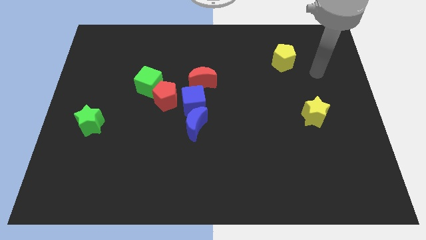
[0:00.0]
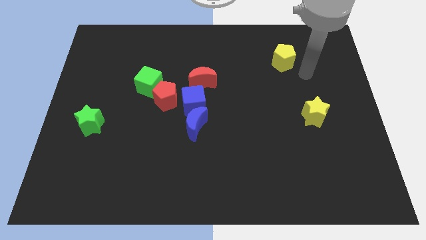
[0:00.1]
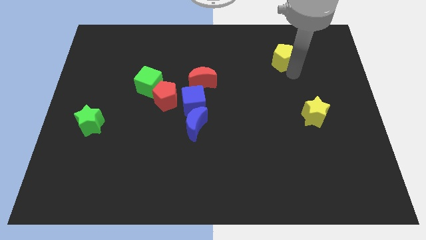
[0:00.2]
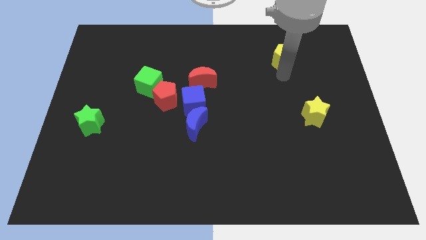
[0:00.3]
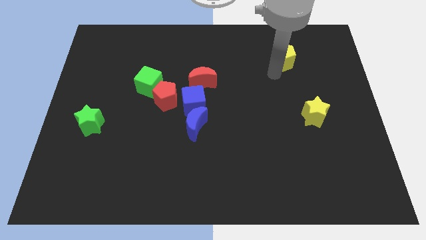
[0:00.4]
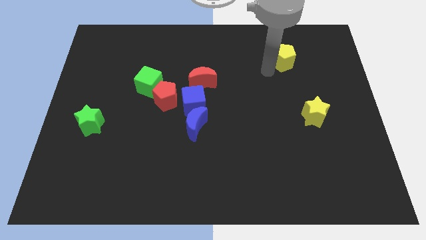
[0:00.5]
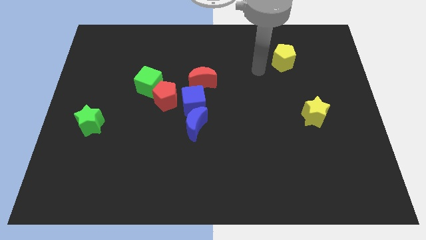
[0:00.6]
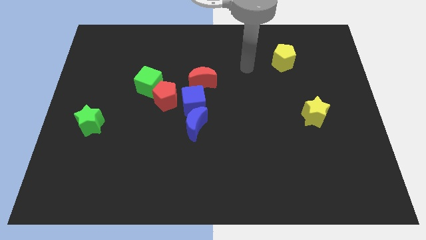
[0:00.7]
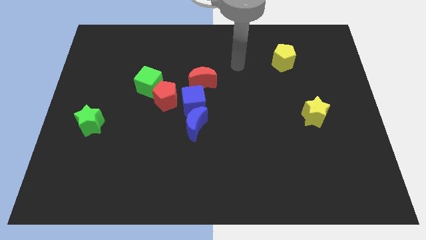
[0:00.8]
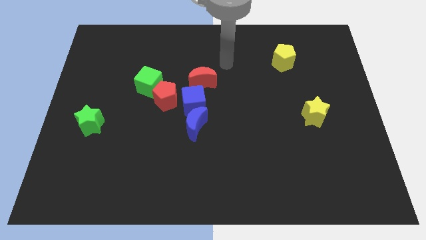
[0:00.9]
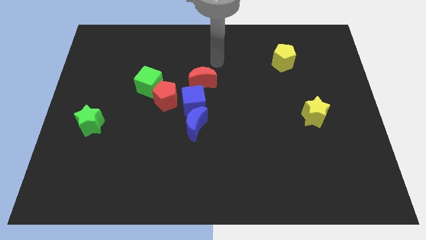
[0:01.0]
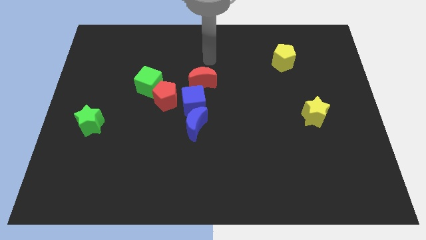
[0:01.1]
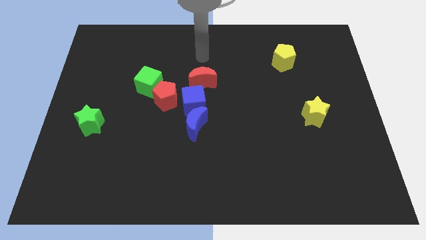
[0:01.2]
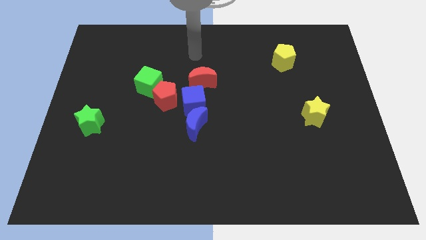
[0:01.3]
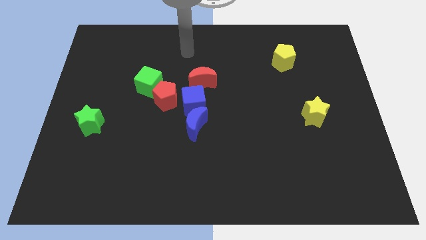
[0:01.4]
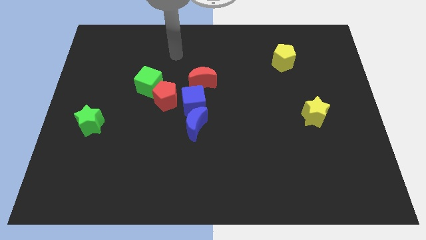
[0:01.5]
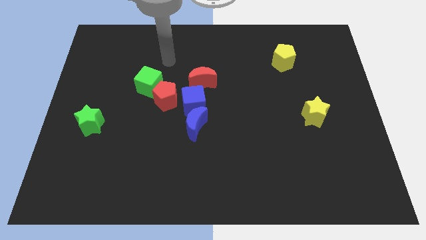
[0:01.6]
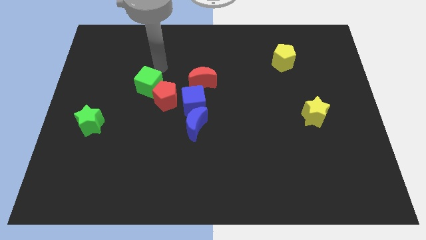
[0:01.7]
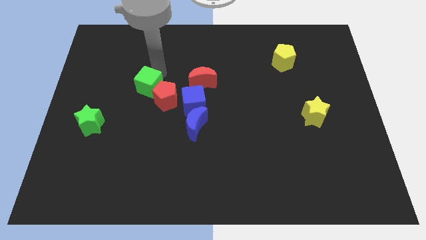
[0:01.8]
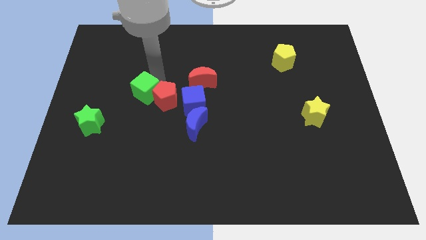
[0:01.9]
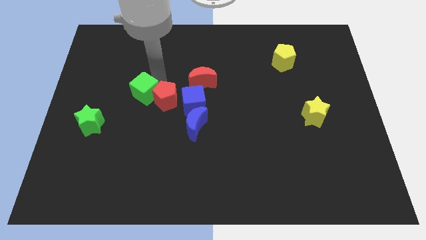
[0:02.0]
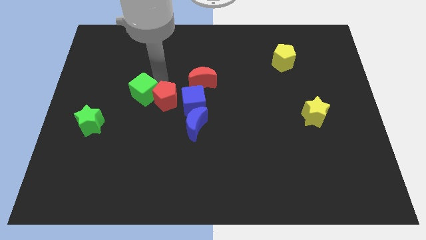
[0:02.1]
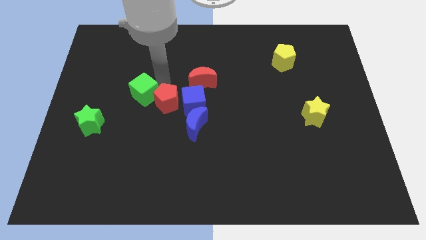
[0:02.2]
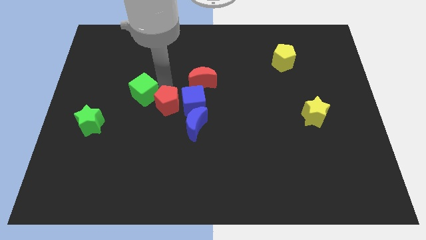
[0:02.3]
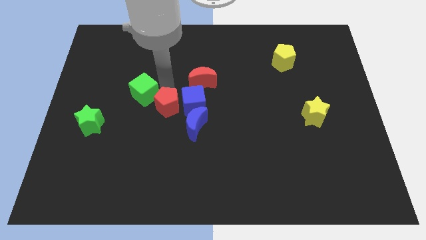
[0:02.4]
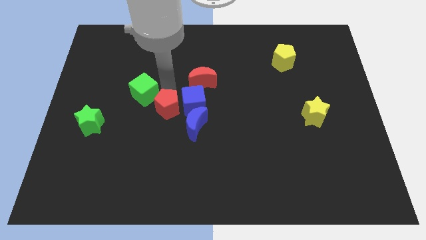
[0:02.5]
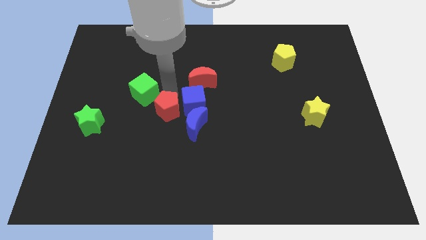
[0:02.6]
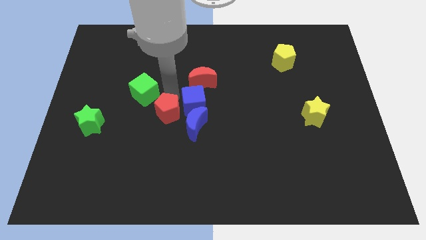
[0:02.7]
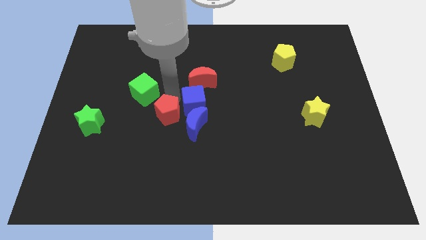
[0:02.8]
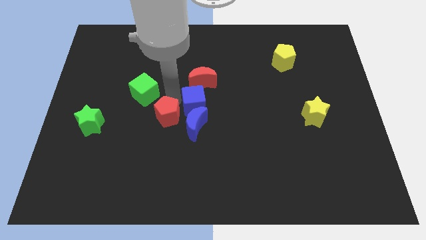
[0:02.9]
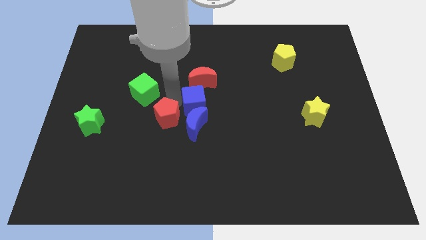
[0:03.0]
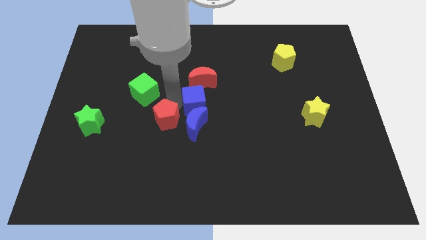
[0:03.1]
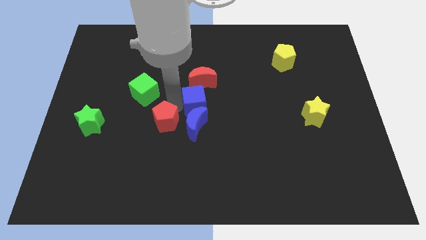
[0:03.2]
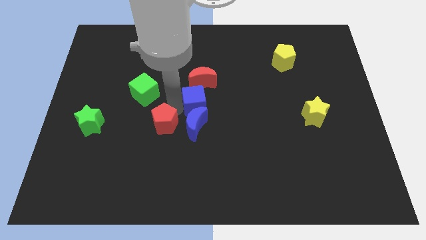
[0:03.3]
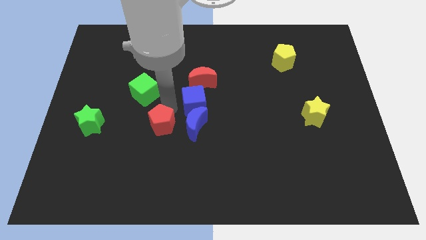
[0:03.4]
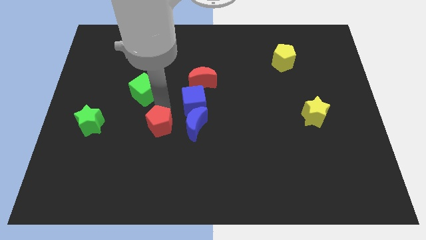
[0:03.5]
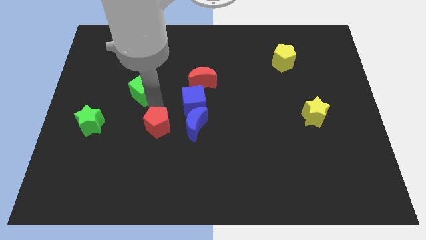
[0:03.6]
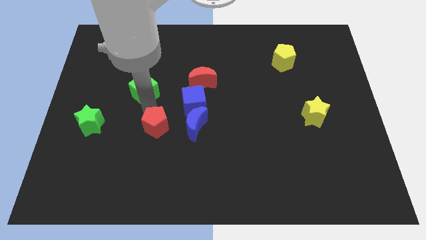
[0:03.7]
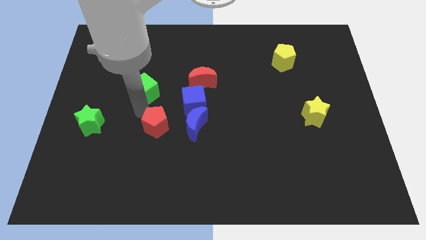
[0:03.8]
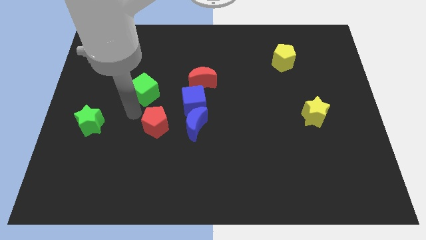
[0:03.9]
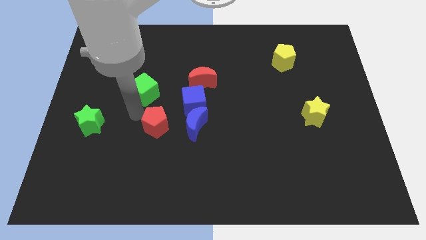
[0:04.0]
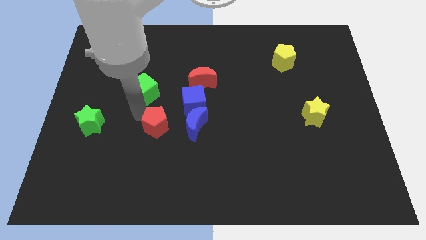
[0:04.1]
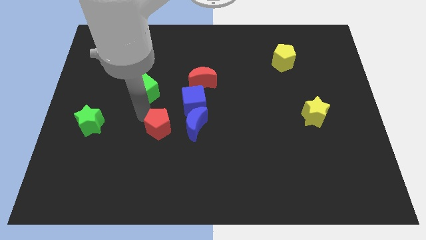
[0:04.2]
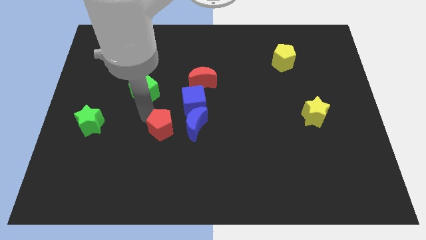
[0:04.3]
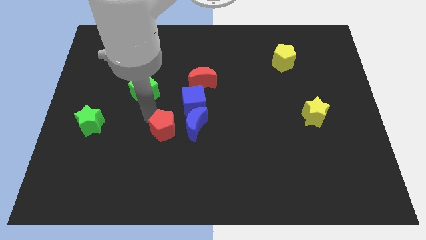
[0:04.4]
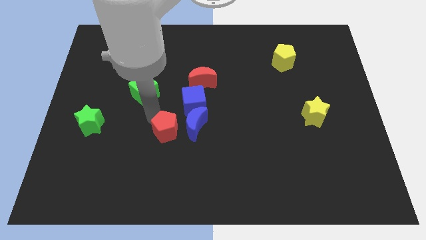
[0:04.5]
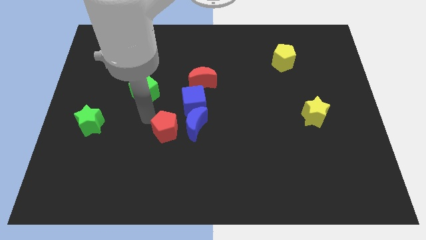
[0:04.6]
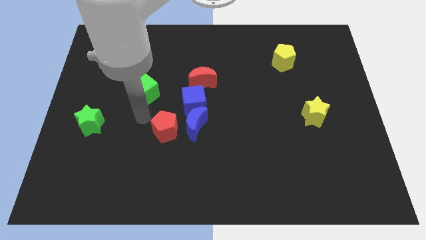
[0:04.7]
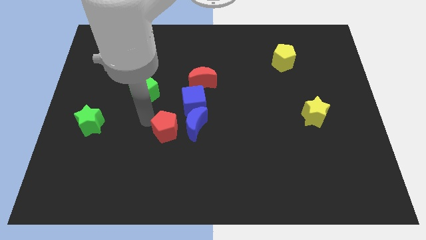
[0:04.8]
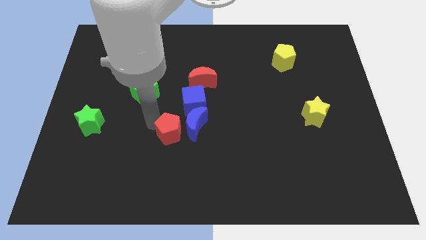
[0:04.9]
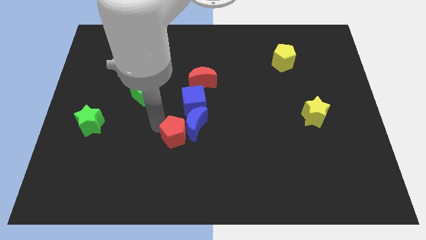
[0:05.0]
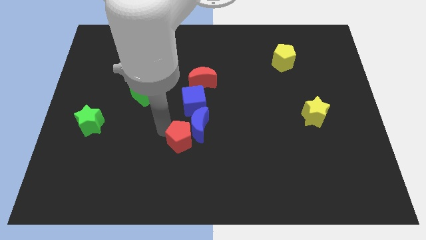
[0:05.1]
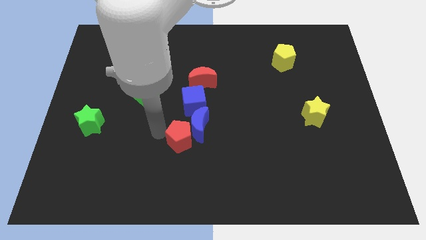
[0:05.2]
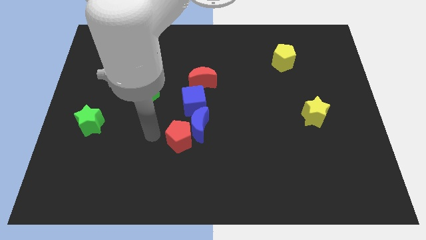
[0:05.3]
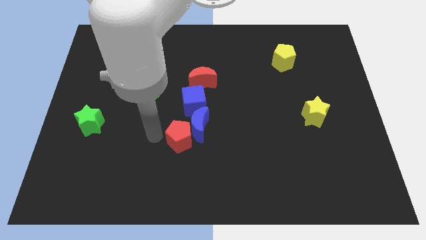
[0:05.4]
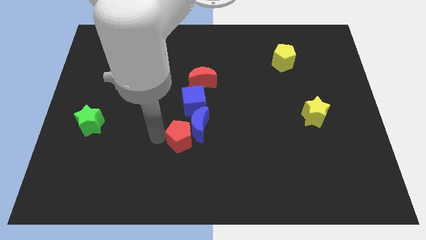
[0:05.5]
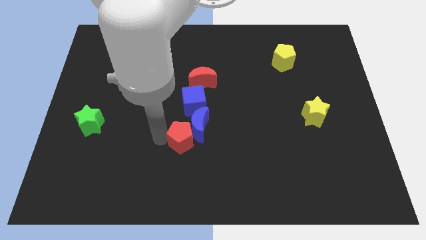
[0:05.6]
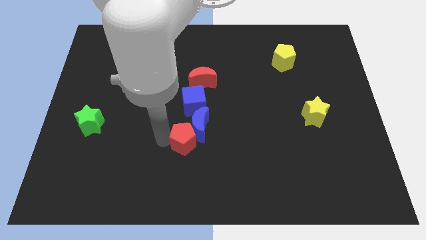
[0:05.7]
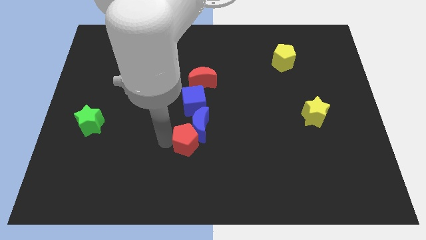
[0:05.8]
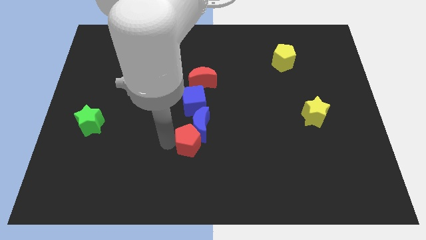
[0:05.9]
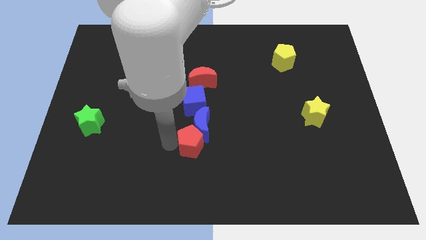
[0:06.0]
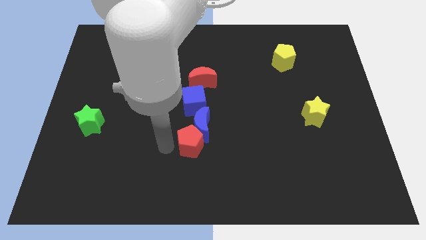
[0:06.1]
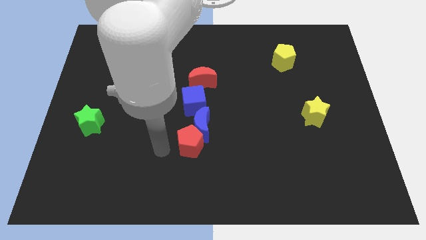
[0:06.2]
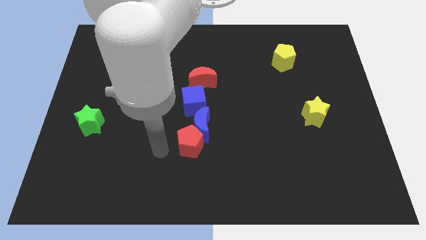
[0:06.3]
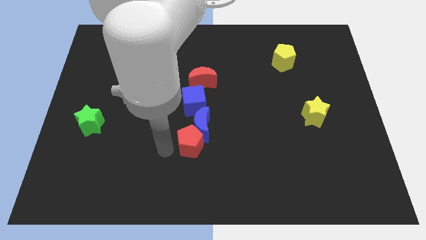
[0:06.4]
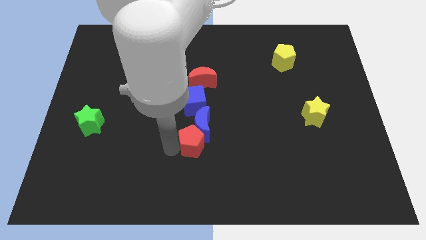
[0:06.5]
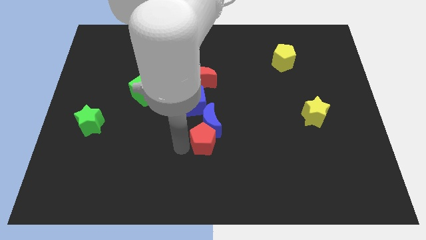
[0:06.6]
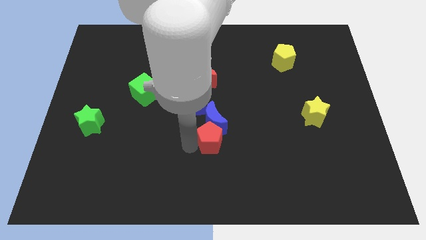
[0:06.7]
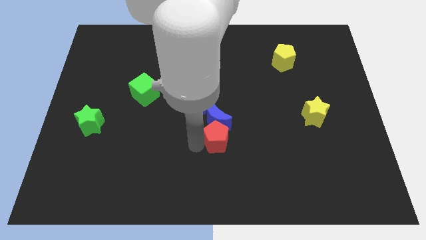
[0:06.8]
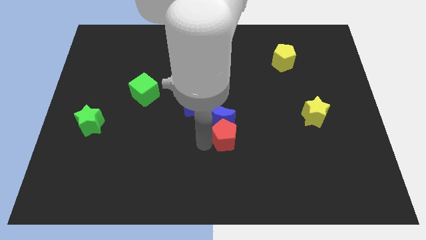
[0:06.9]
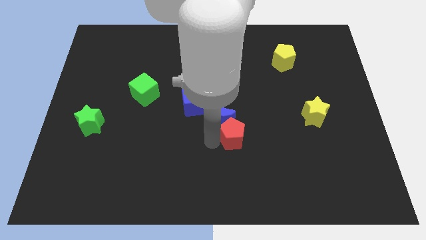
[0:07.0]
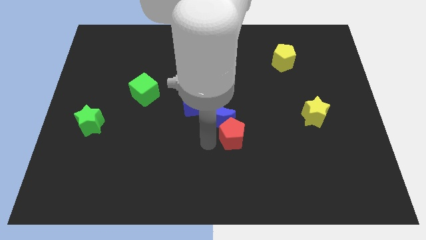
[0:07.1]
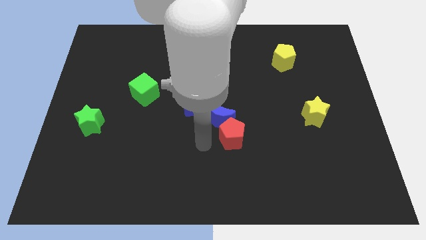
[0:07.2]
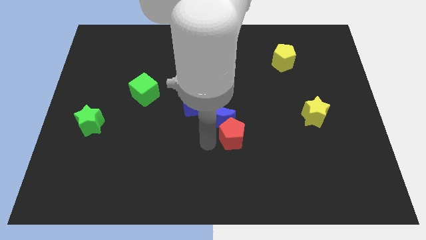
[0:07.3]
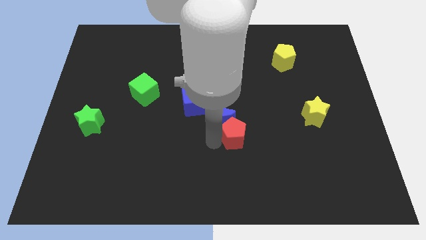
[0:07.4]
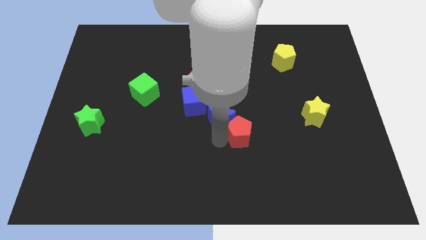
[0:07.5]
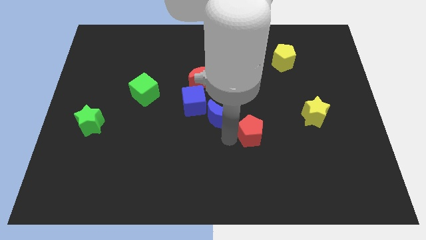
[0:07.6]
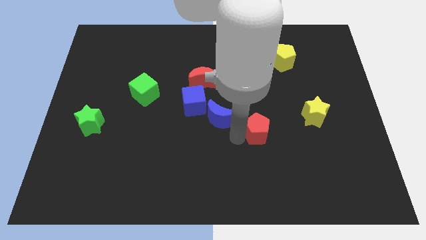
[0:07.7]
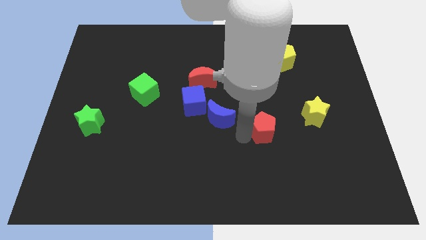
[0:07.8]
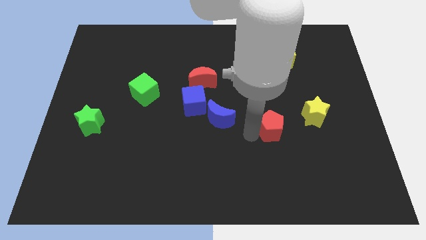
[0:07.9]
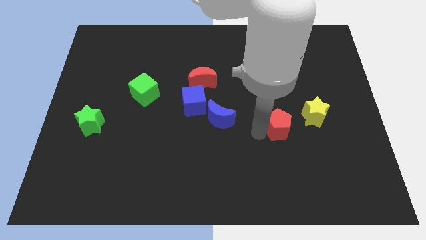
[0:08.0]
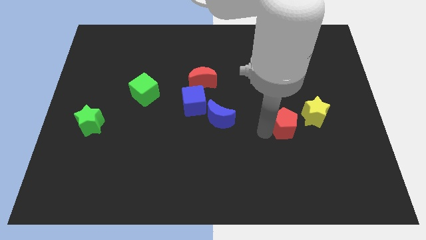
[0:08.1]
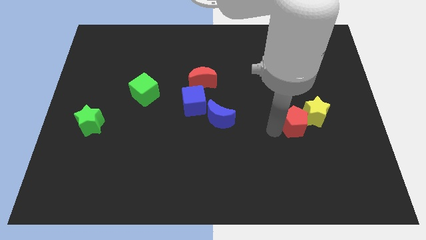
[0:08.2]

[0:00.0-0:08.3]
put the red pentagon towards the yellow star
